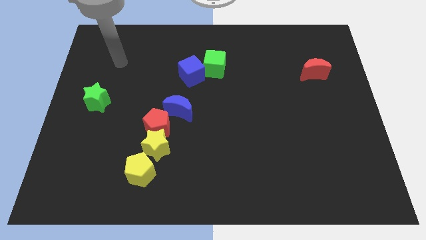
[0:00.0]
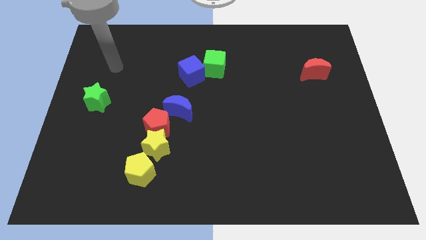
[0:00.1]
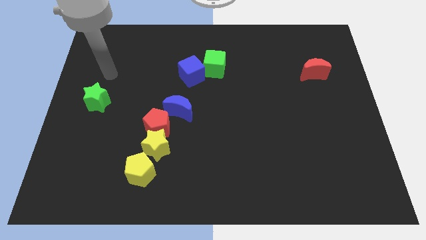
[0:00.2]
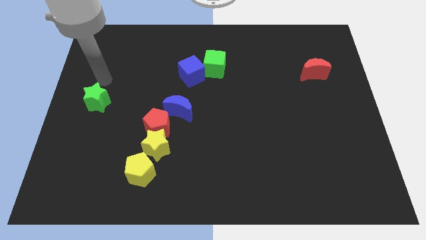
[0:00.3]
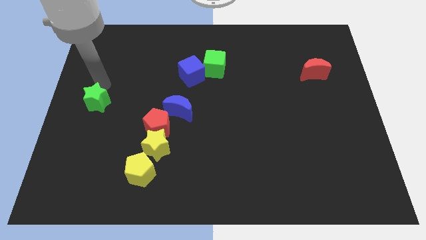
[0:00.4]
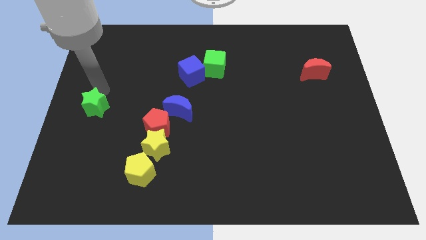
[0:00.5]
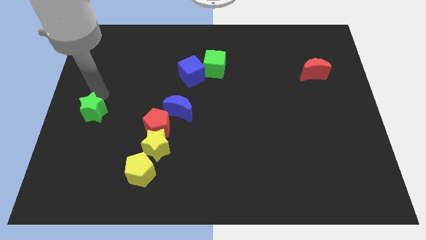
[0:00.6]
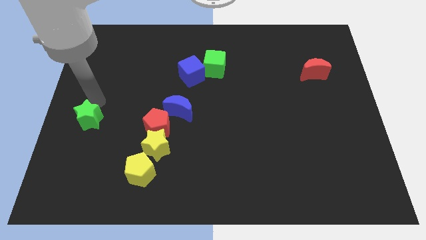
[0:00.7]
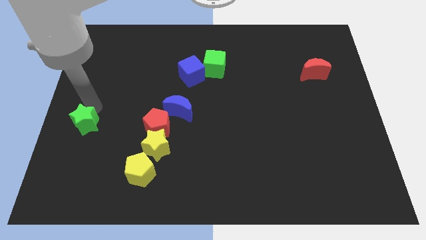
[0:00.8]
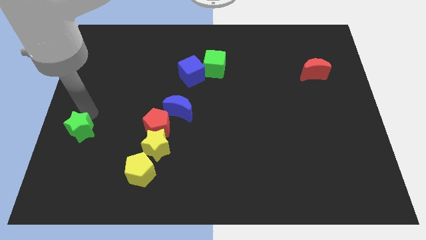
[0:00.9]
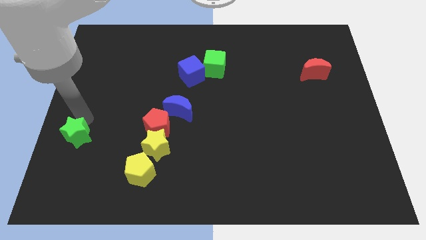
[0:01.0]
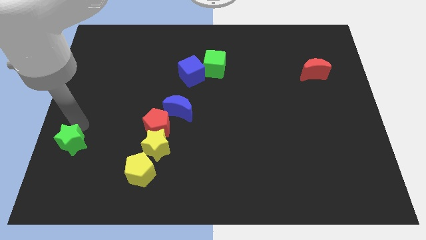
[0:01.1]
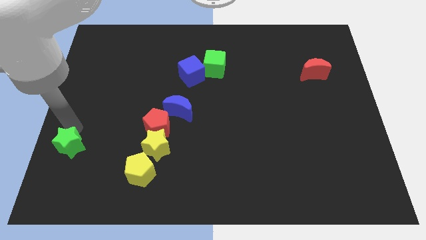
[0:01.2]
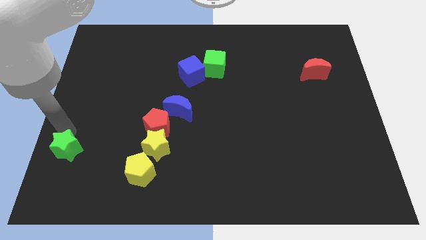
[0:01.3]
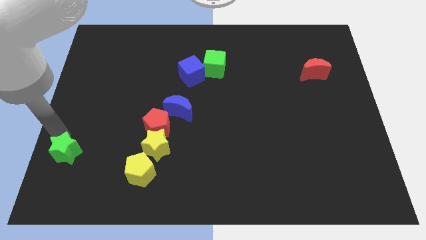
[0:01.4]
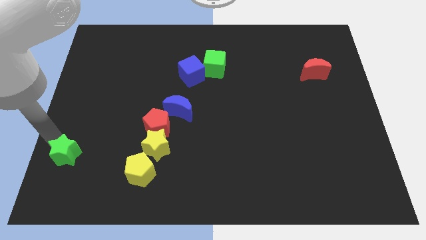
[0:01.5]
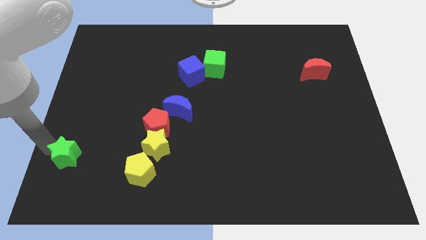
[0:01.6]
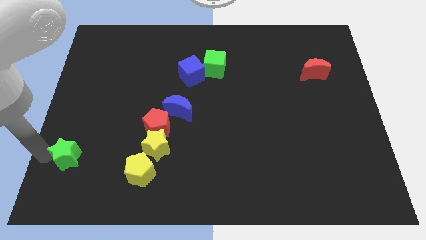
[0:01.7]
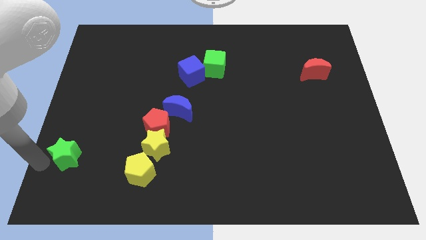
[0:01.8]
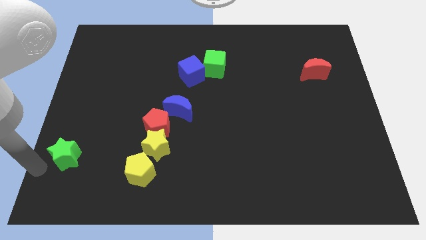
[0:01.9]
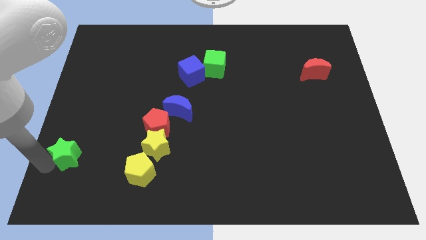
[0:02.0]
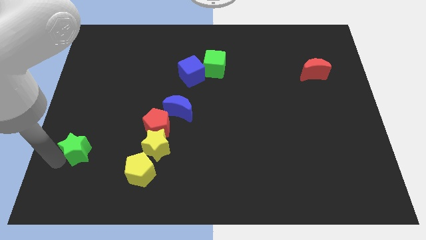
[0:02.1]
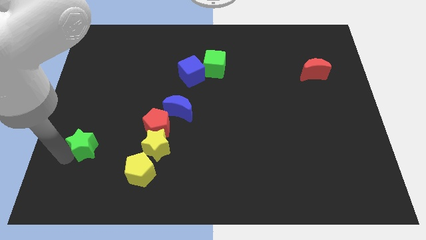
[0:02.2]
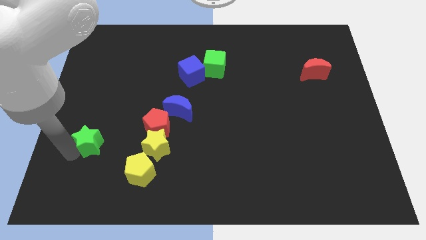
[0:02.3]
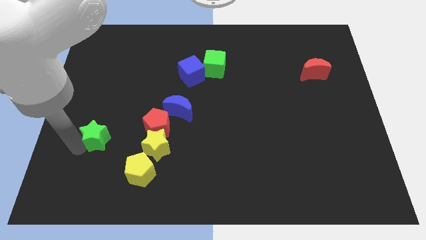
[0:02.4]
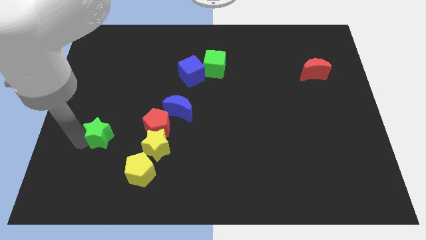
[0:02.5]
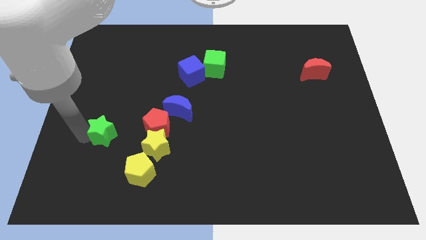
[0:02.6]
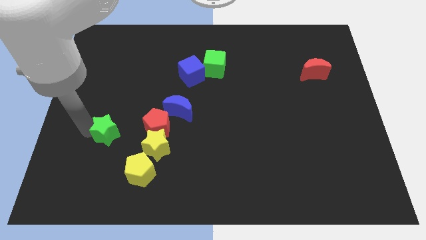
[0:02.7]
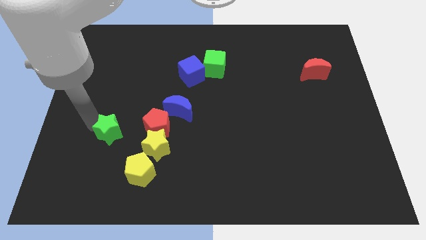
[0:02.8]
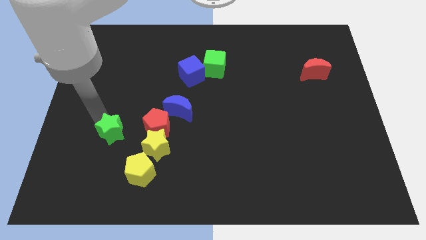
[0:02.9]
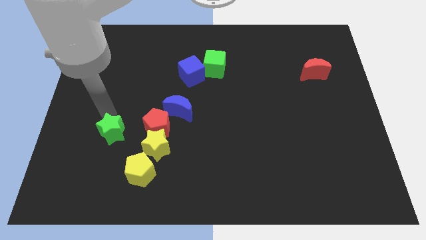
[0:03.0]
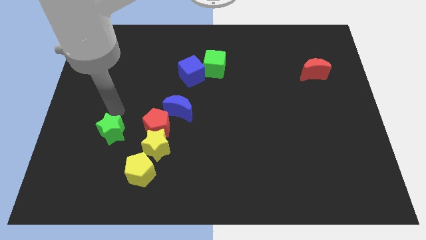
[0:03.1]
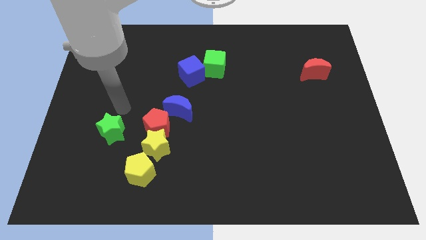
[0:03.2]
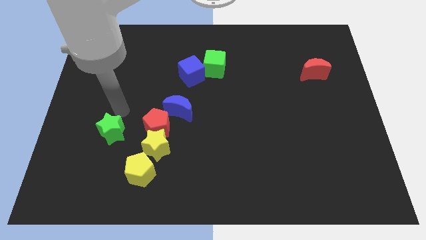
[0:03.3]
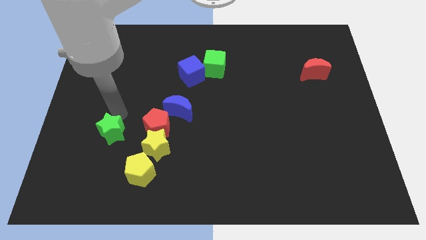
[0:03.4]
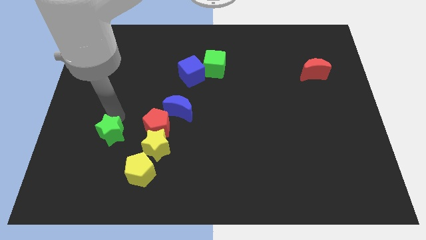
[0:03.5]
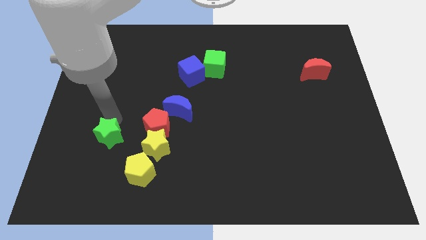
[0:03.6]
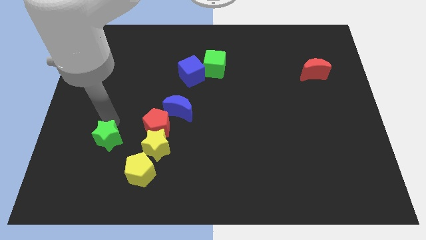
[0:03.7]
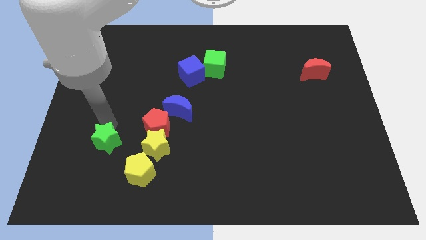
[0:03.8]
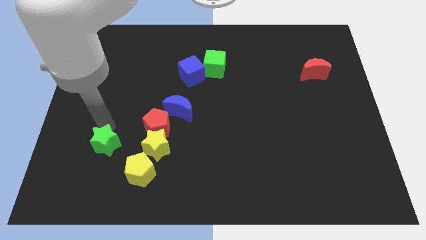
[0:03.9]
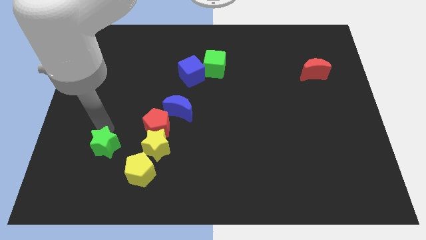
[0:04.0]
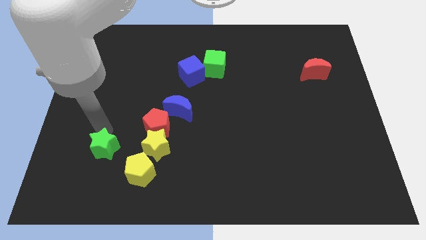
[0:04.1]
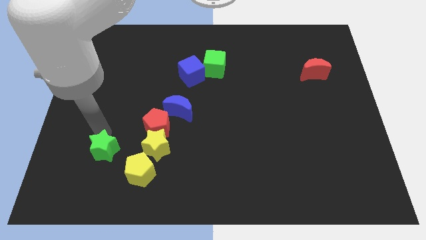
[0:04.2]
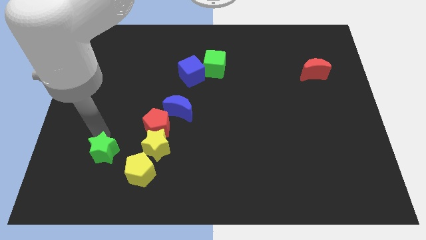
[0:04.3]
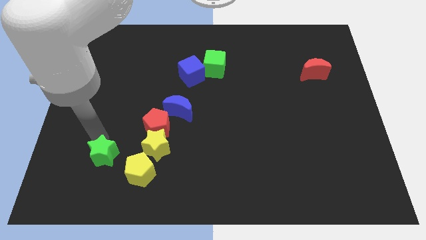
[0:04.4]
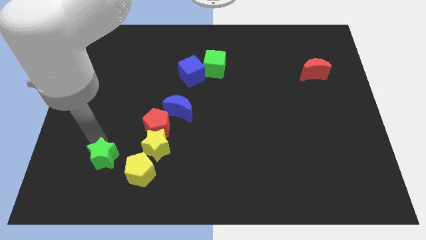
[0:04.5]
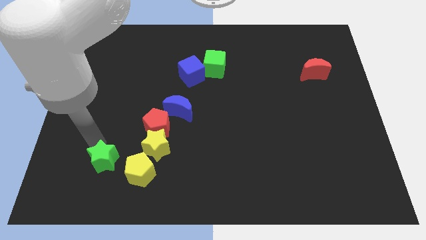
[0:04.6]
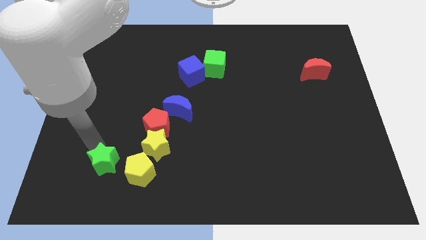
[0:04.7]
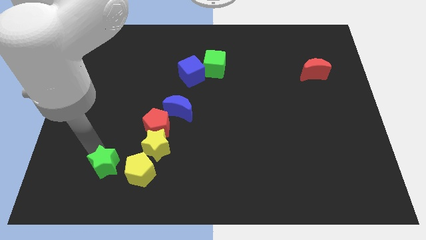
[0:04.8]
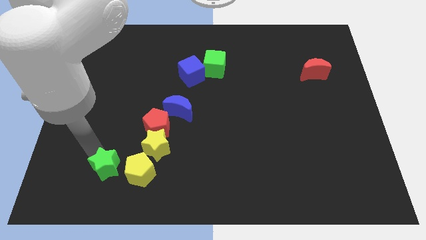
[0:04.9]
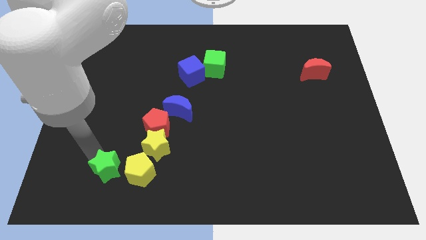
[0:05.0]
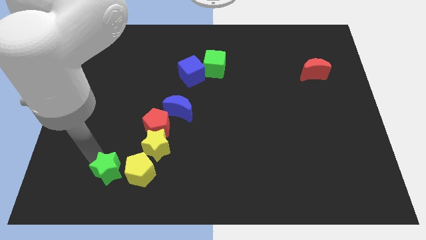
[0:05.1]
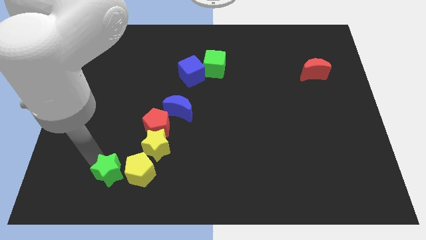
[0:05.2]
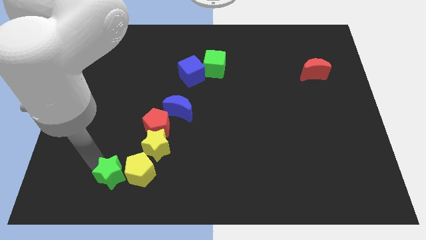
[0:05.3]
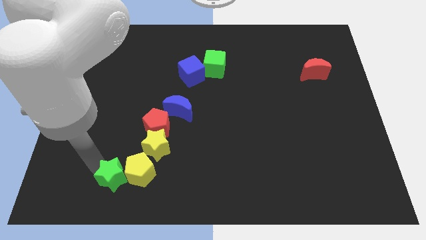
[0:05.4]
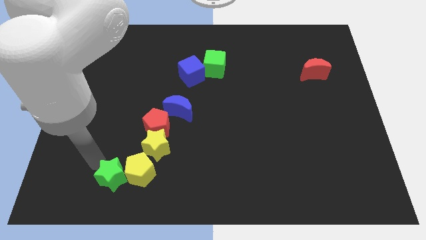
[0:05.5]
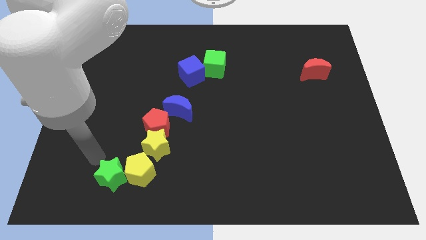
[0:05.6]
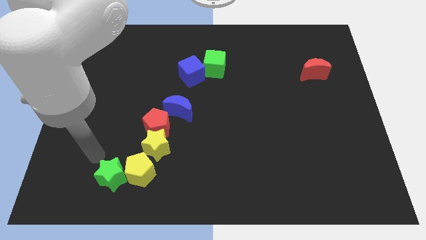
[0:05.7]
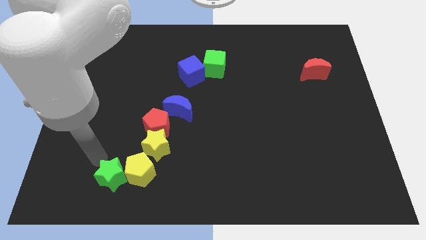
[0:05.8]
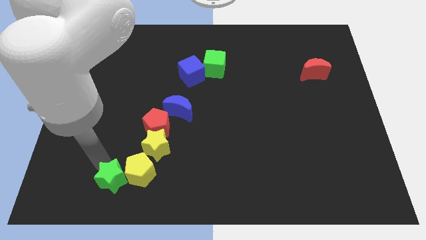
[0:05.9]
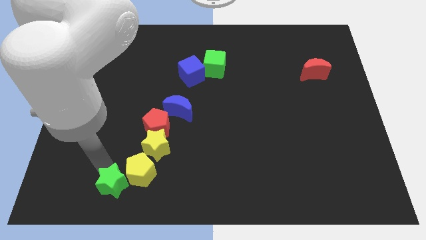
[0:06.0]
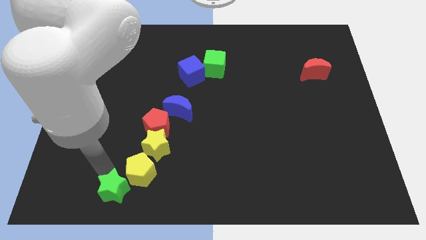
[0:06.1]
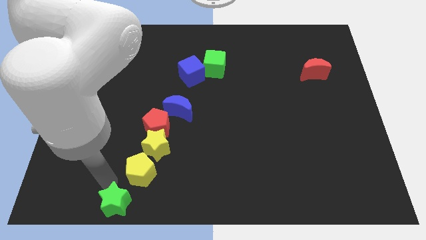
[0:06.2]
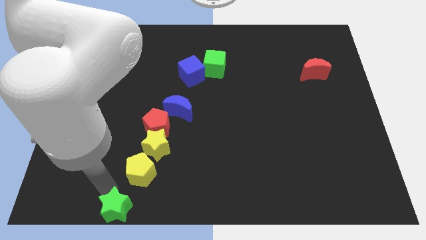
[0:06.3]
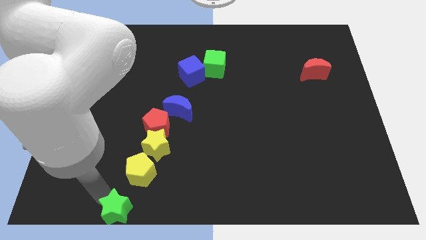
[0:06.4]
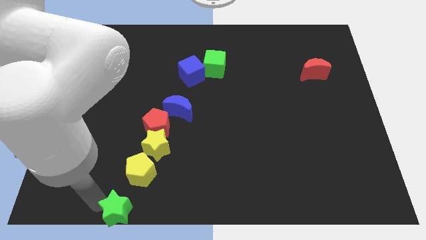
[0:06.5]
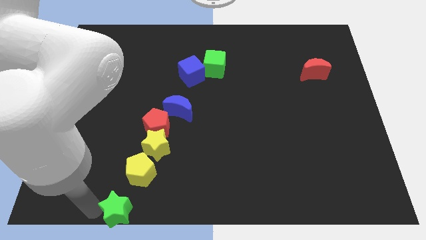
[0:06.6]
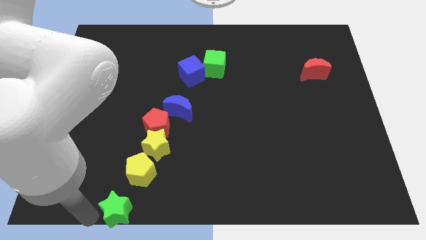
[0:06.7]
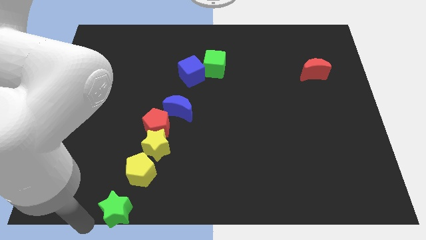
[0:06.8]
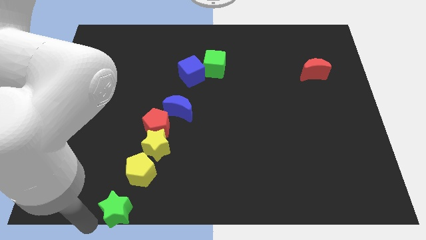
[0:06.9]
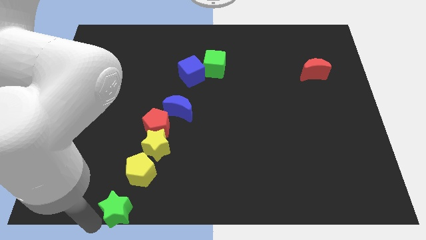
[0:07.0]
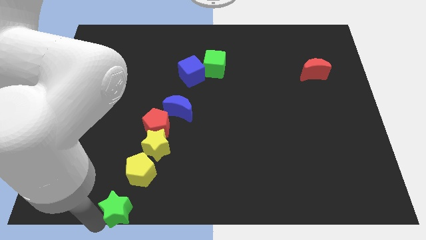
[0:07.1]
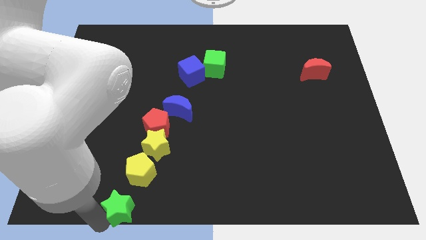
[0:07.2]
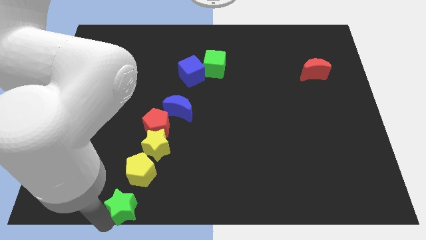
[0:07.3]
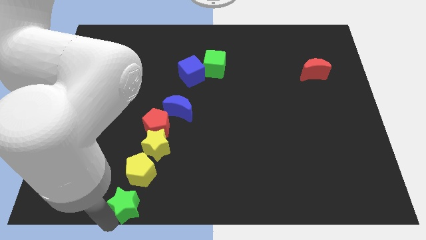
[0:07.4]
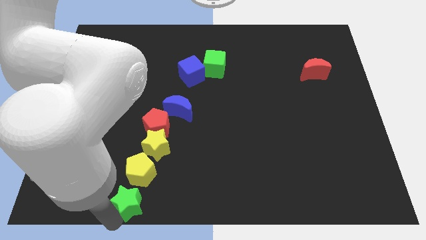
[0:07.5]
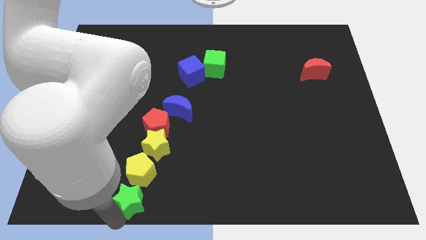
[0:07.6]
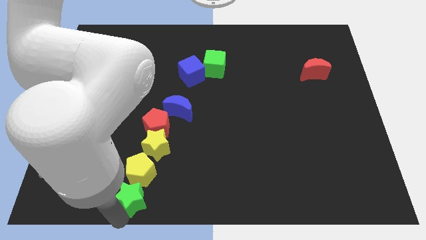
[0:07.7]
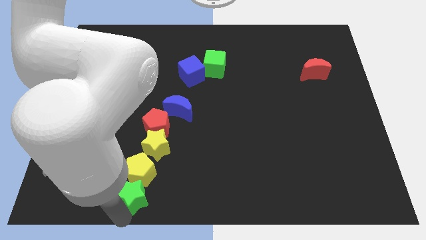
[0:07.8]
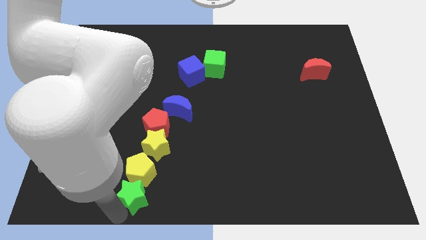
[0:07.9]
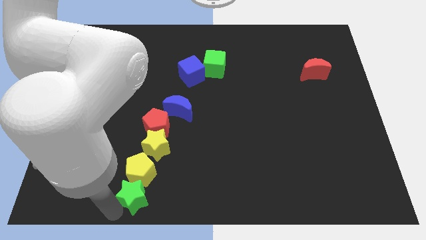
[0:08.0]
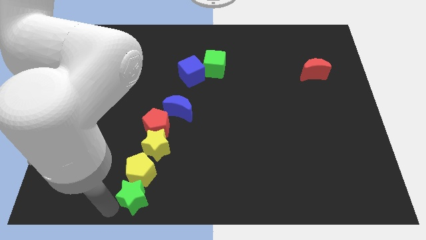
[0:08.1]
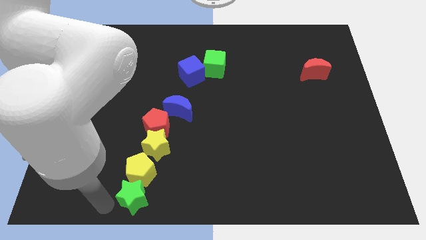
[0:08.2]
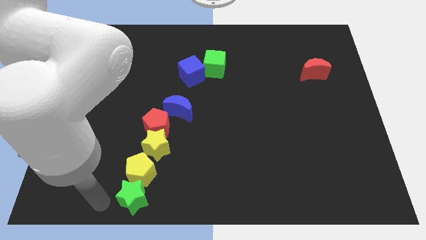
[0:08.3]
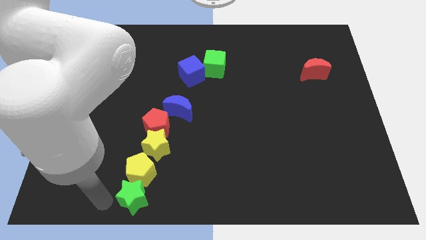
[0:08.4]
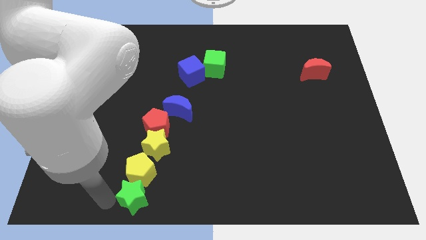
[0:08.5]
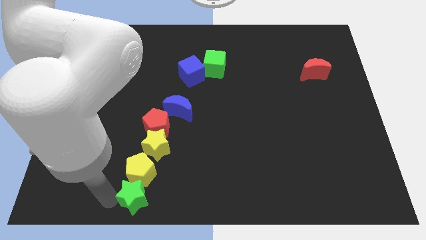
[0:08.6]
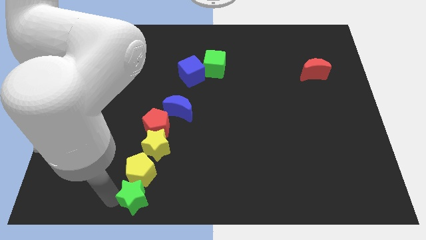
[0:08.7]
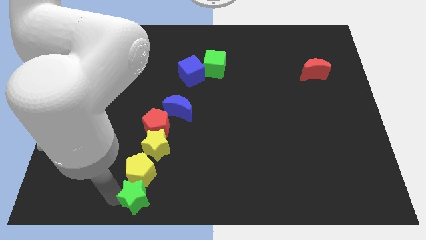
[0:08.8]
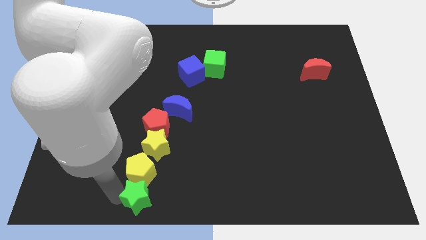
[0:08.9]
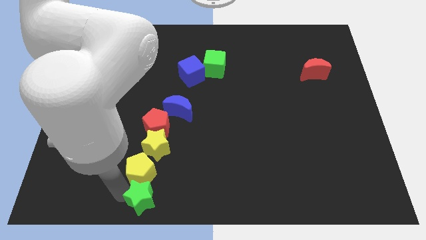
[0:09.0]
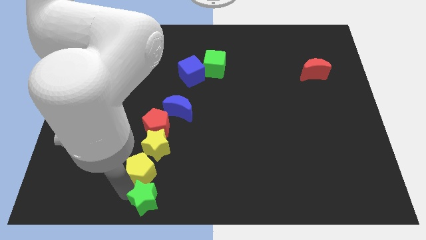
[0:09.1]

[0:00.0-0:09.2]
move the green star to the bottom
